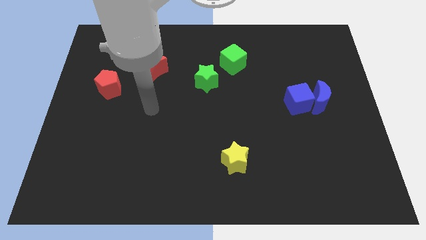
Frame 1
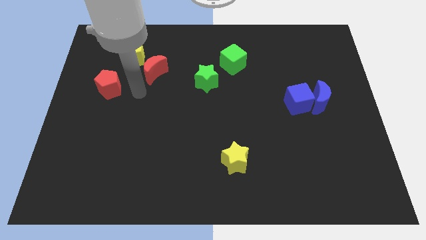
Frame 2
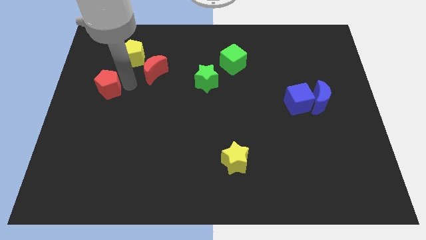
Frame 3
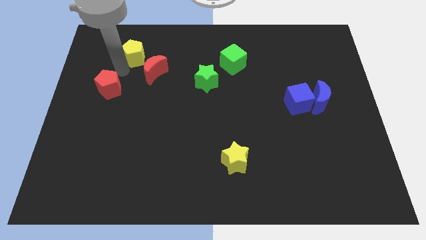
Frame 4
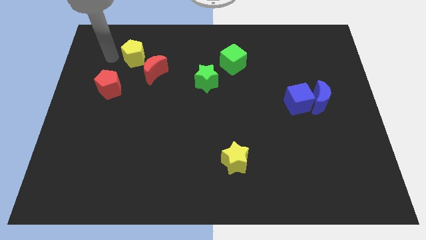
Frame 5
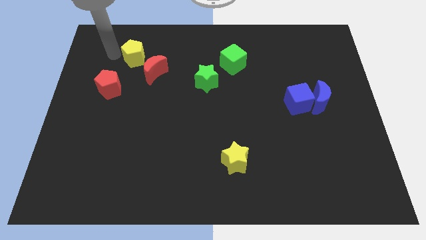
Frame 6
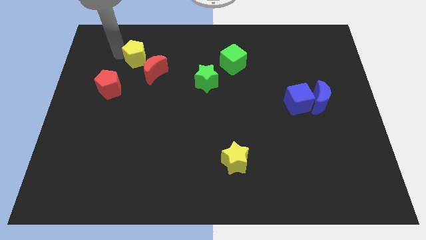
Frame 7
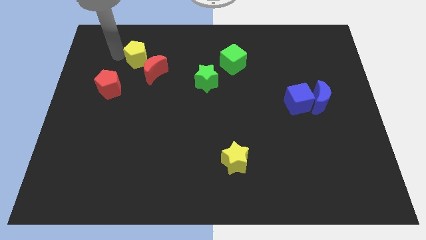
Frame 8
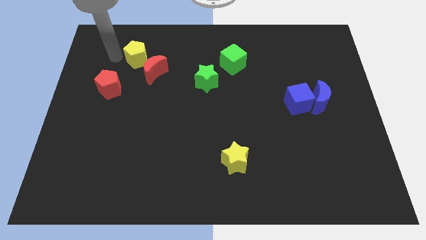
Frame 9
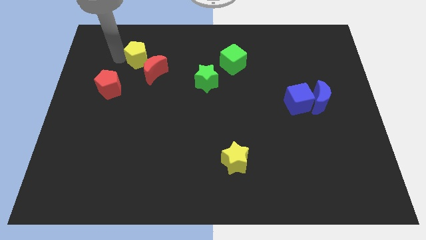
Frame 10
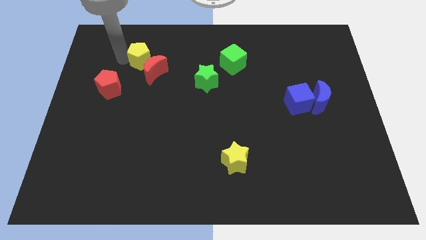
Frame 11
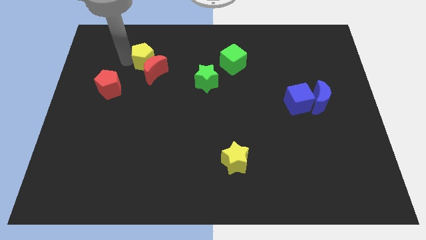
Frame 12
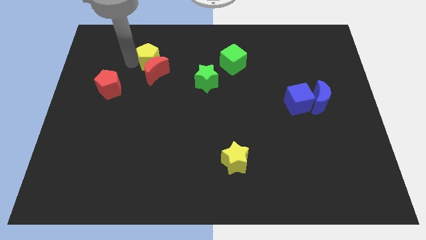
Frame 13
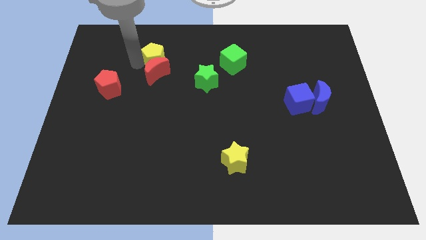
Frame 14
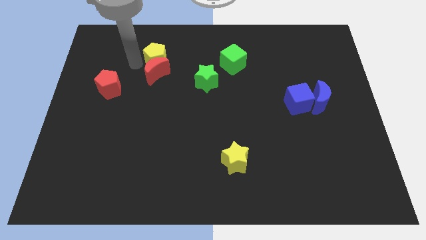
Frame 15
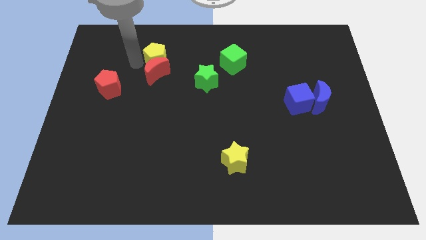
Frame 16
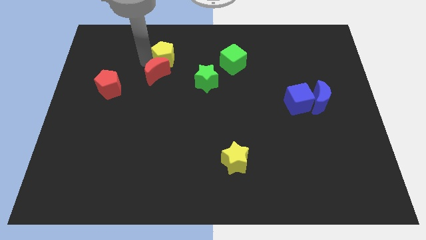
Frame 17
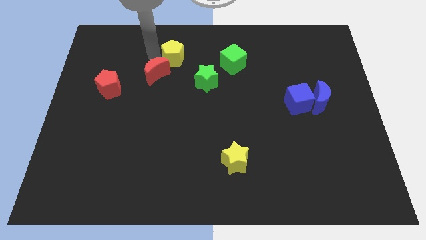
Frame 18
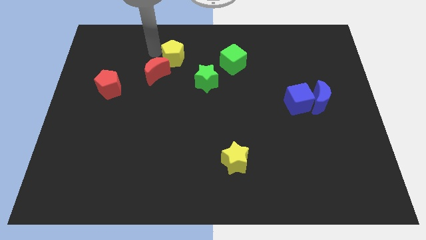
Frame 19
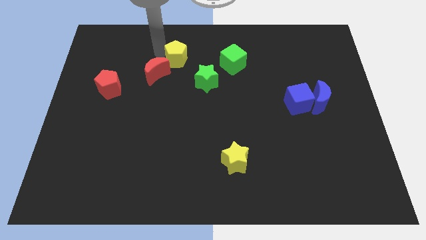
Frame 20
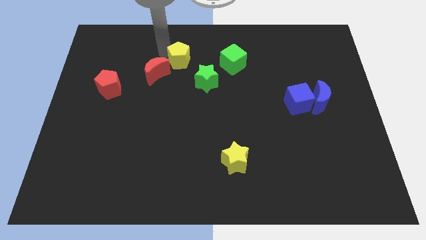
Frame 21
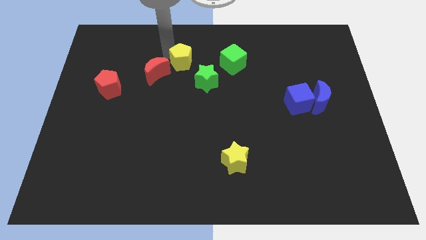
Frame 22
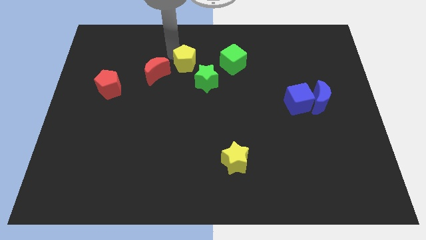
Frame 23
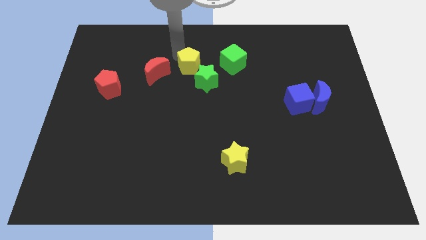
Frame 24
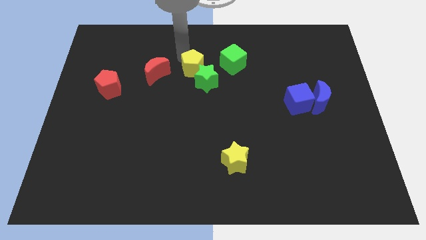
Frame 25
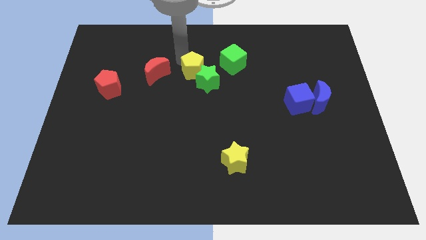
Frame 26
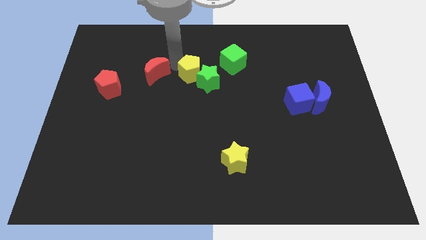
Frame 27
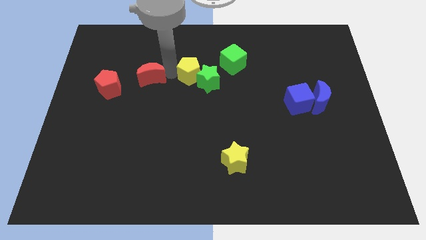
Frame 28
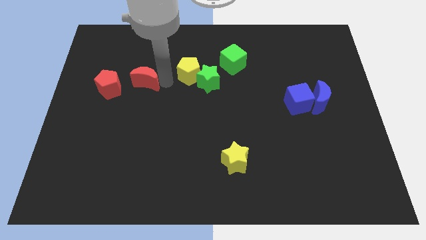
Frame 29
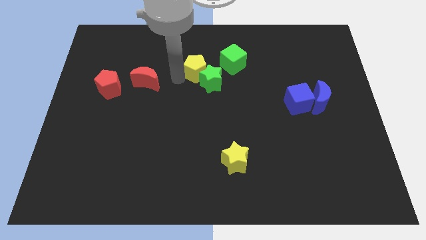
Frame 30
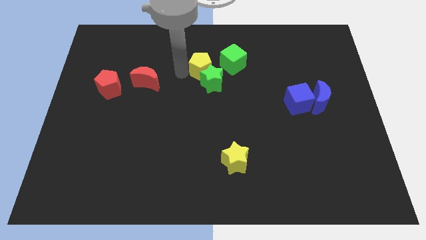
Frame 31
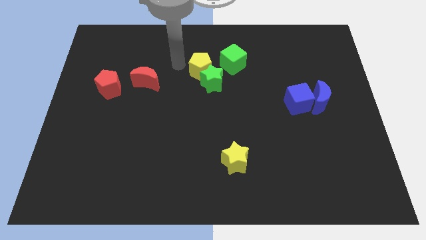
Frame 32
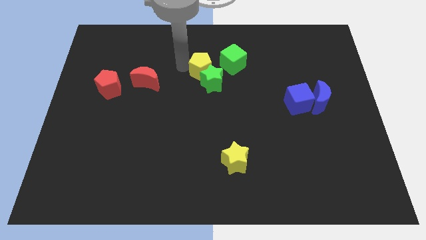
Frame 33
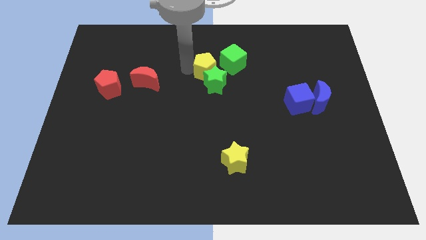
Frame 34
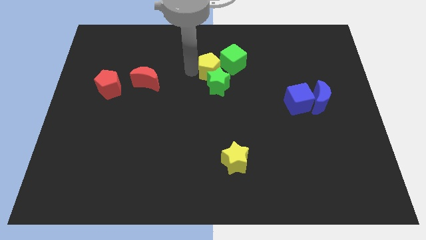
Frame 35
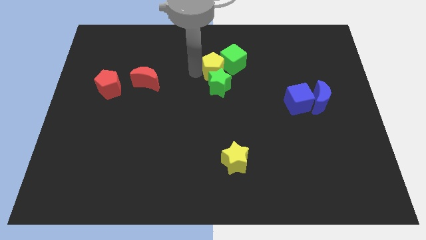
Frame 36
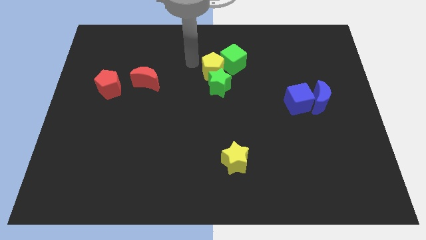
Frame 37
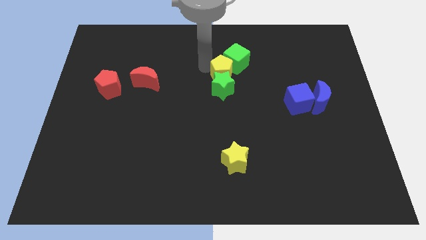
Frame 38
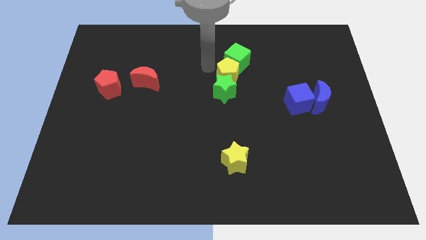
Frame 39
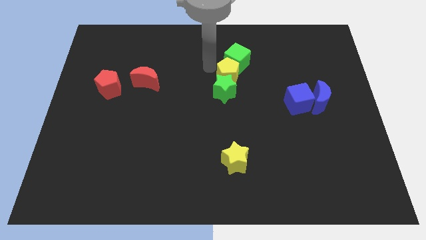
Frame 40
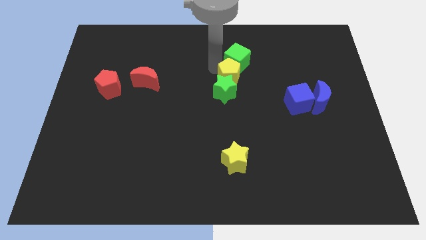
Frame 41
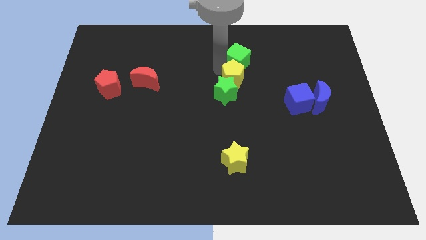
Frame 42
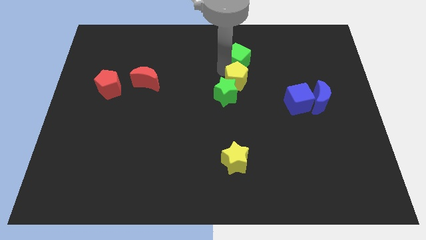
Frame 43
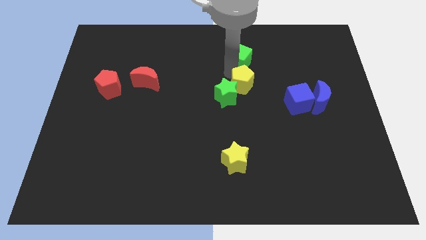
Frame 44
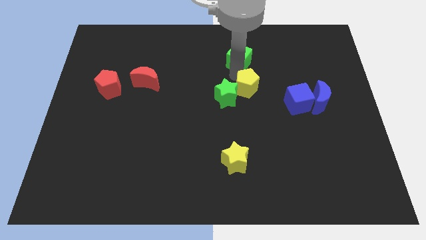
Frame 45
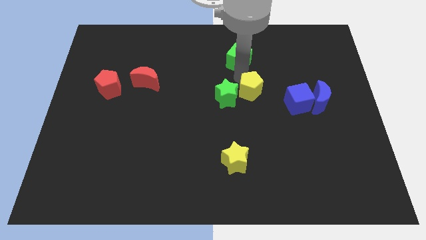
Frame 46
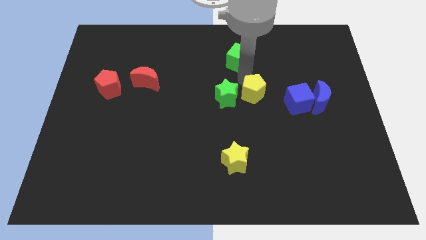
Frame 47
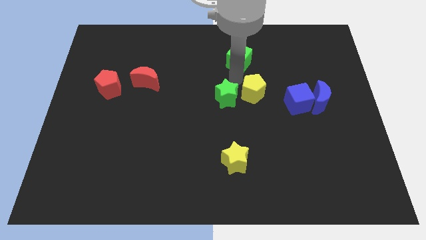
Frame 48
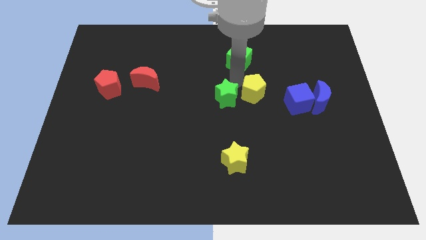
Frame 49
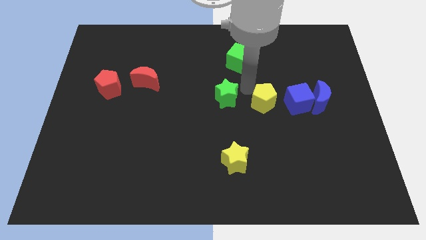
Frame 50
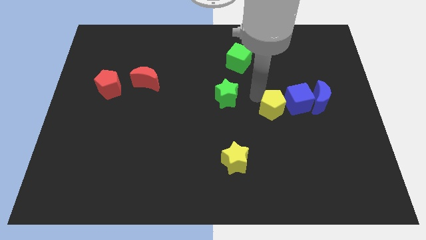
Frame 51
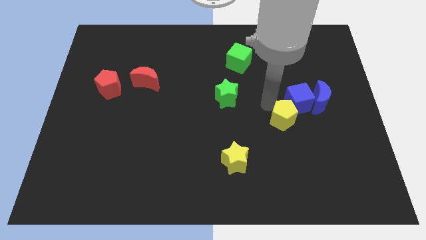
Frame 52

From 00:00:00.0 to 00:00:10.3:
push the yellow pentagon below the blue cube

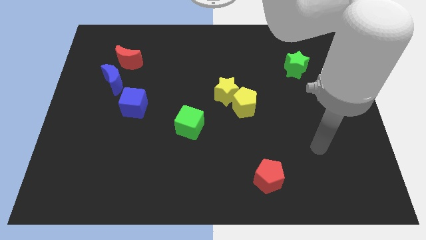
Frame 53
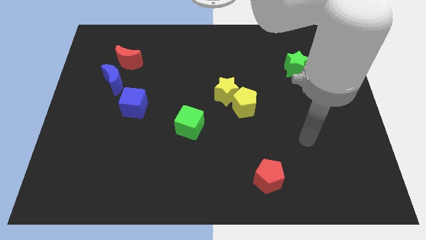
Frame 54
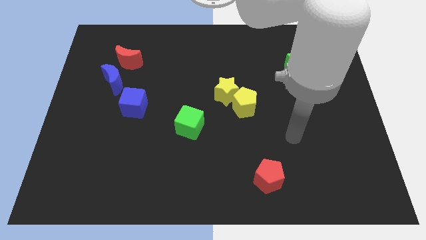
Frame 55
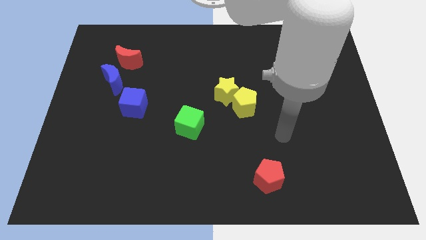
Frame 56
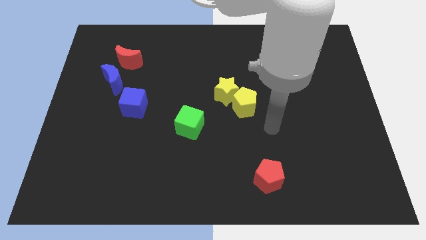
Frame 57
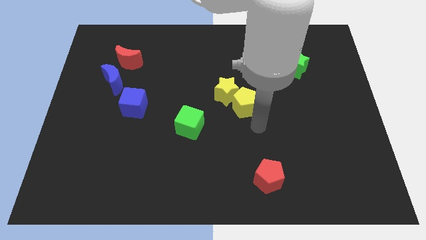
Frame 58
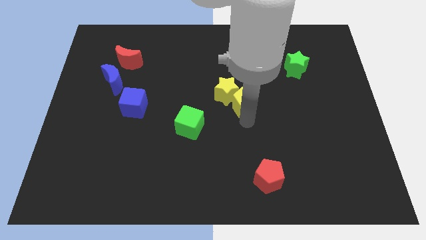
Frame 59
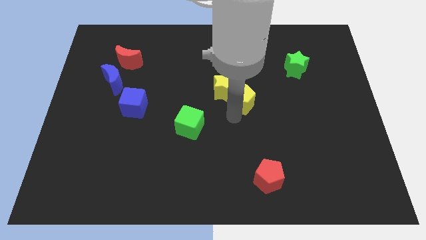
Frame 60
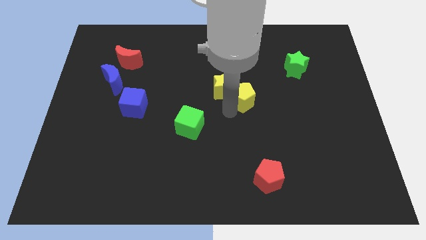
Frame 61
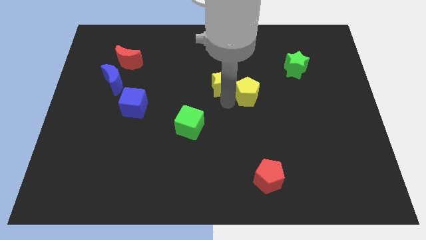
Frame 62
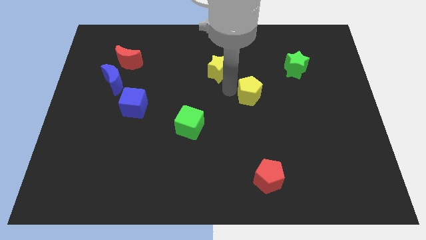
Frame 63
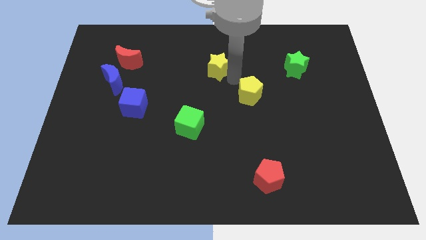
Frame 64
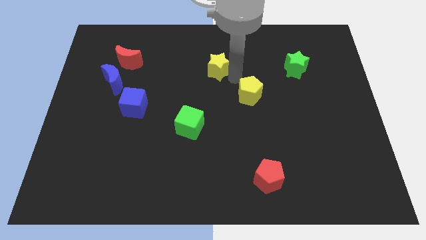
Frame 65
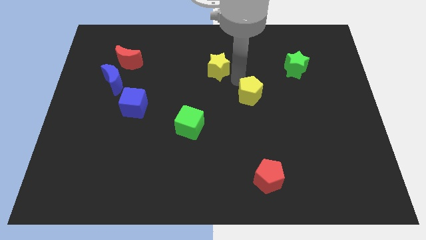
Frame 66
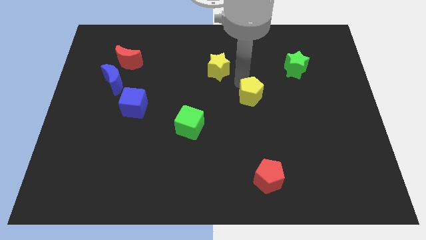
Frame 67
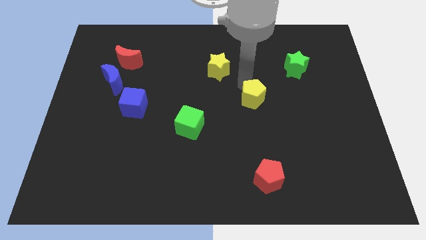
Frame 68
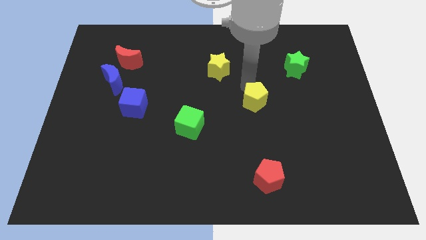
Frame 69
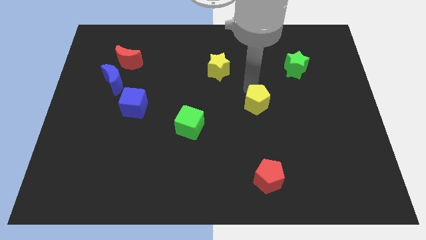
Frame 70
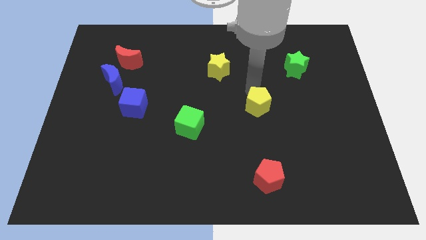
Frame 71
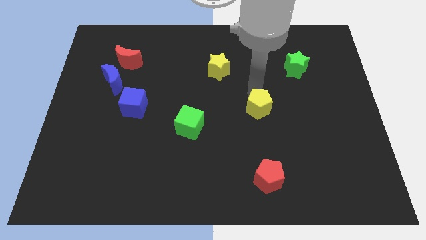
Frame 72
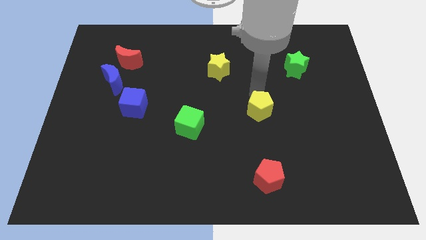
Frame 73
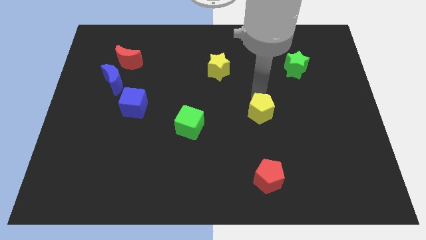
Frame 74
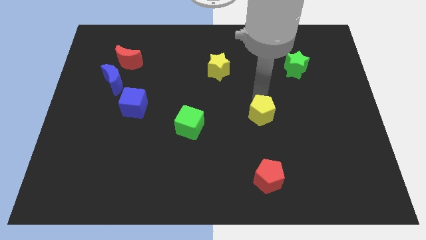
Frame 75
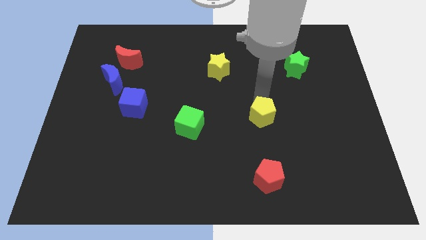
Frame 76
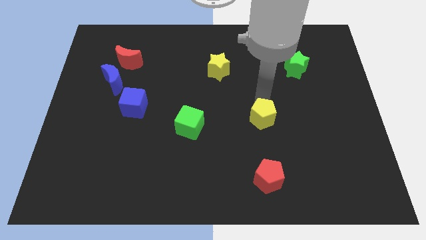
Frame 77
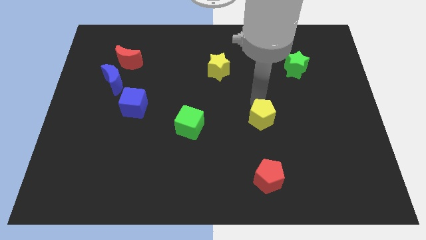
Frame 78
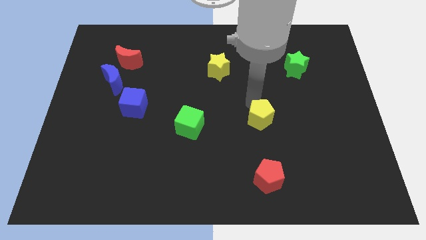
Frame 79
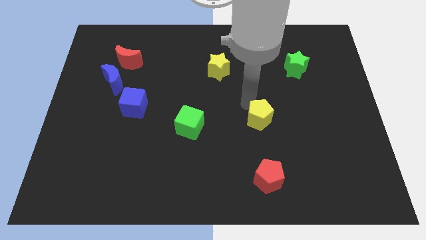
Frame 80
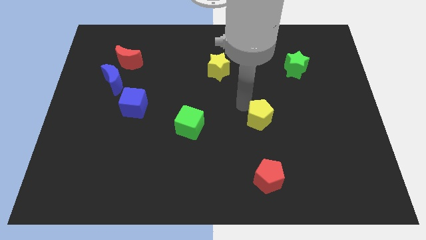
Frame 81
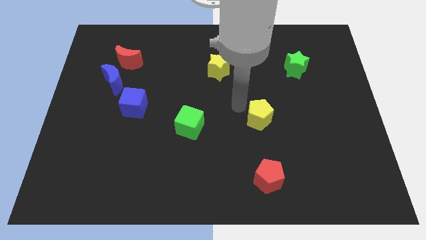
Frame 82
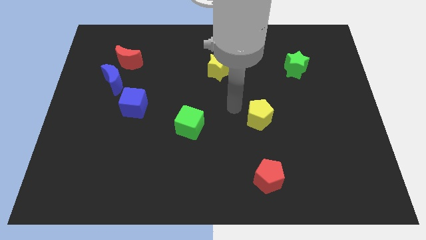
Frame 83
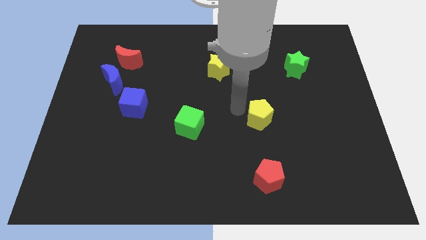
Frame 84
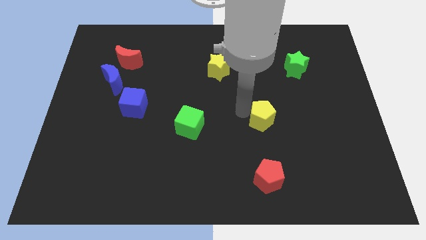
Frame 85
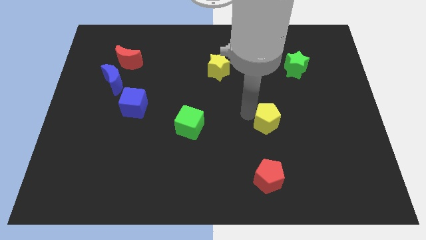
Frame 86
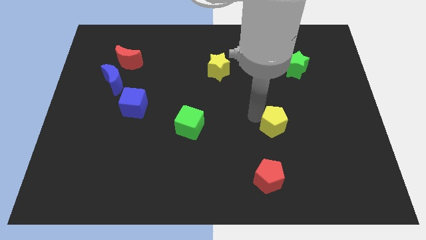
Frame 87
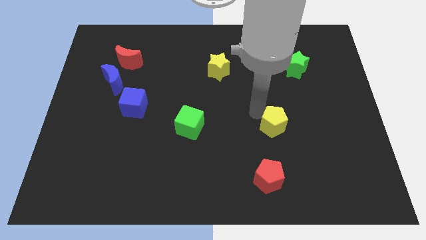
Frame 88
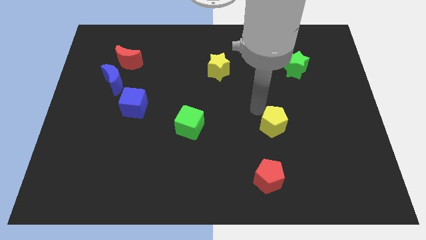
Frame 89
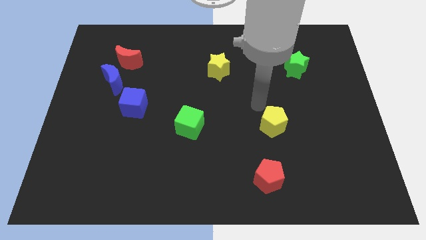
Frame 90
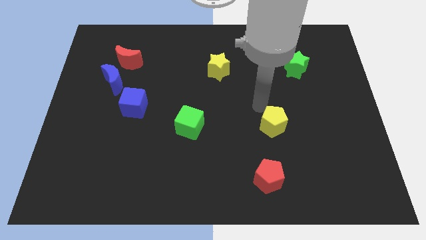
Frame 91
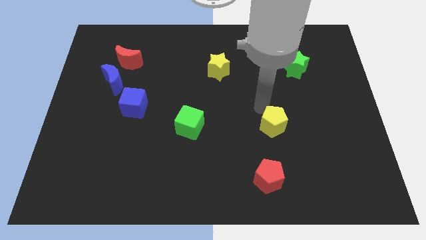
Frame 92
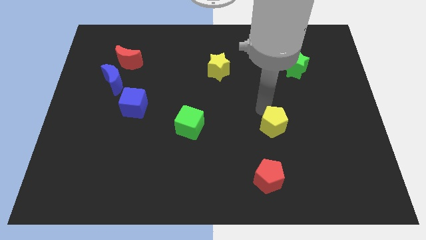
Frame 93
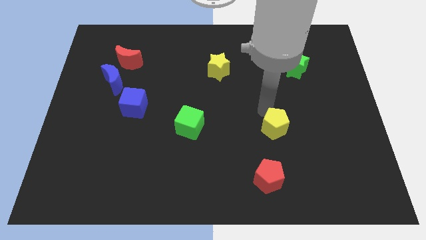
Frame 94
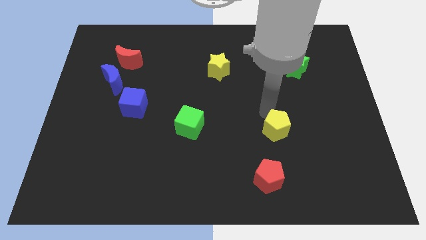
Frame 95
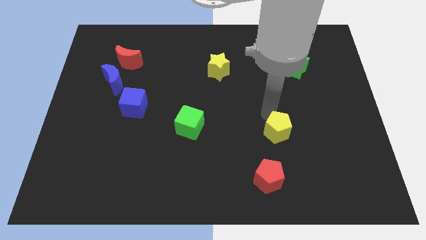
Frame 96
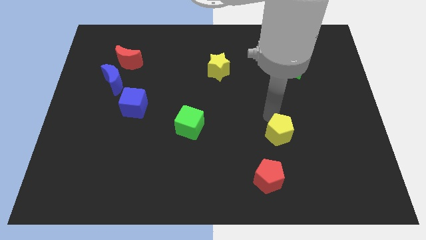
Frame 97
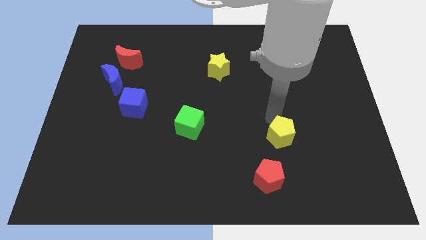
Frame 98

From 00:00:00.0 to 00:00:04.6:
slide the yellow pentagon diagonally up and to the right of the red pentagon
